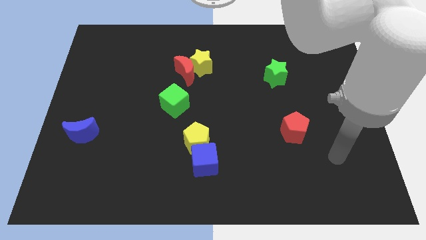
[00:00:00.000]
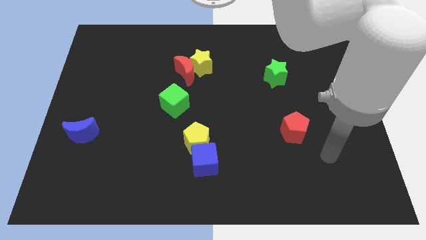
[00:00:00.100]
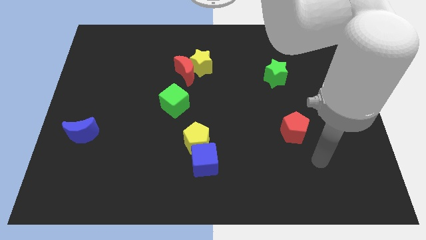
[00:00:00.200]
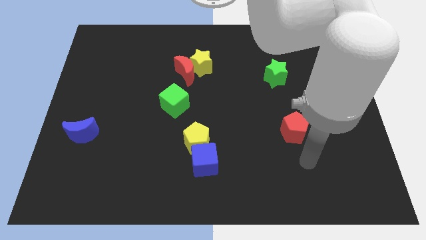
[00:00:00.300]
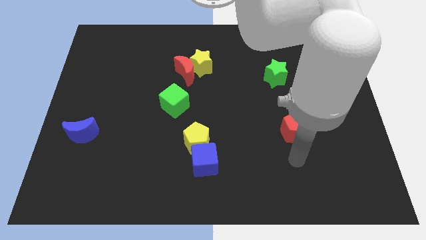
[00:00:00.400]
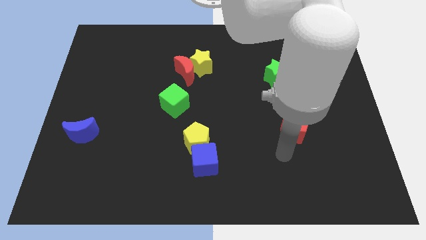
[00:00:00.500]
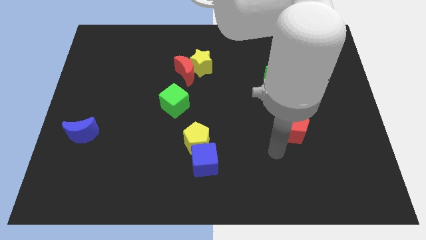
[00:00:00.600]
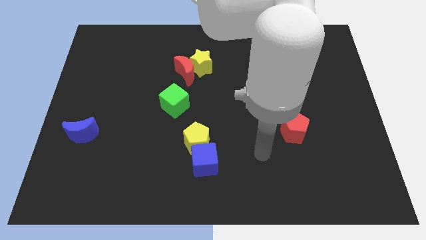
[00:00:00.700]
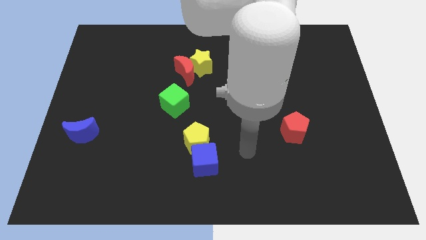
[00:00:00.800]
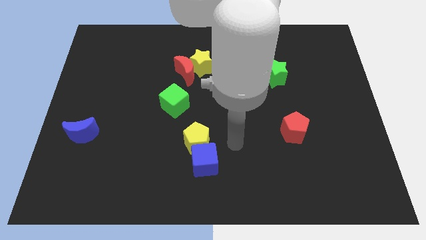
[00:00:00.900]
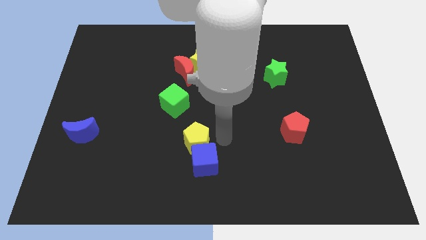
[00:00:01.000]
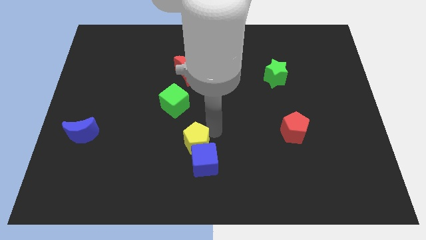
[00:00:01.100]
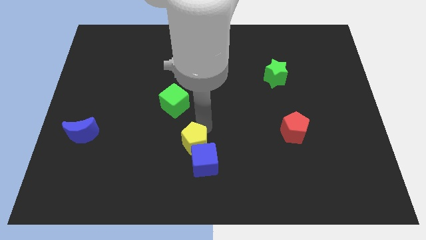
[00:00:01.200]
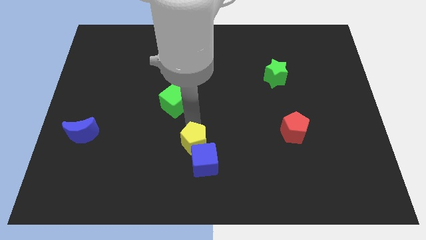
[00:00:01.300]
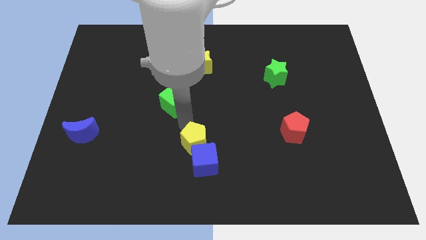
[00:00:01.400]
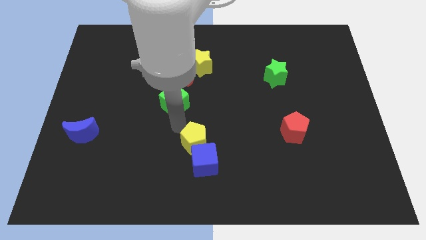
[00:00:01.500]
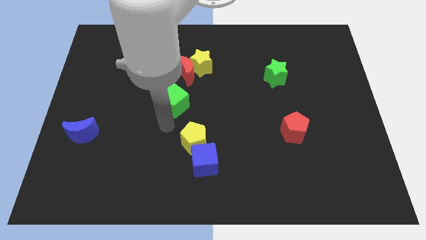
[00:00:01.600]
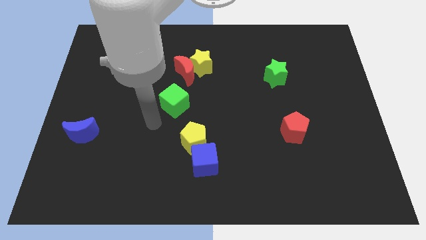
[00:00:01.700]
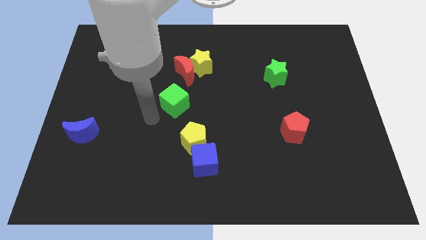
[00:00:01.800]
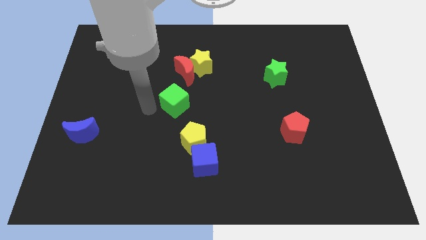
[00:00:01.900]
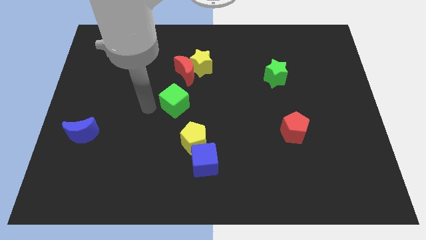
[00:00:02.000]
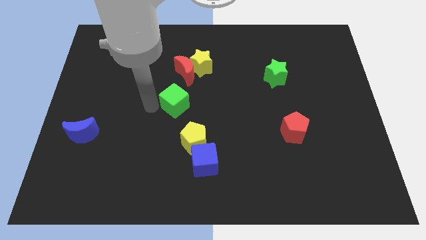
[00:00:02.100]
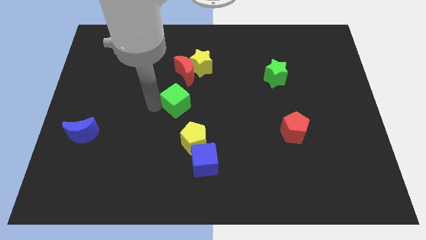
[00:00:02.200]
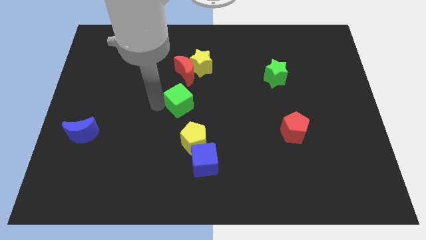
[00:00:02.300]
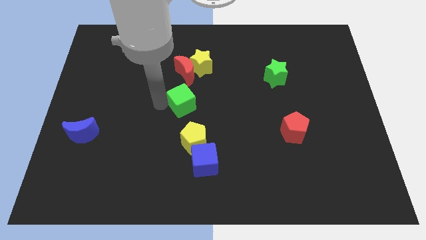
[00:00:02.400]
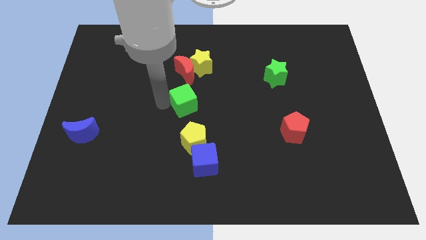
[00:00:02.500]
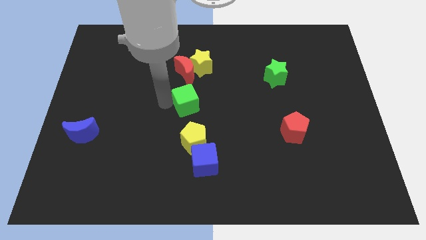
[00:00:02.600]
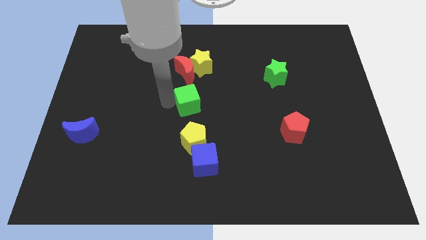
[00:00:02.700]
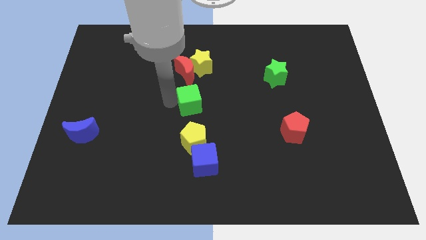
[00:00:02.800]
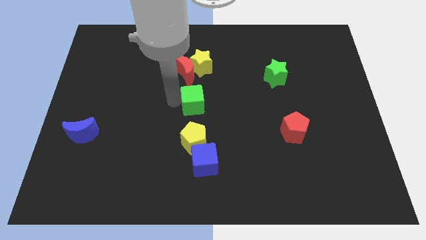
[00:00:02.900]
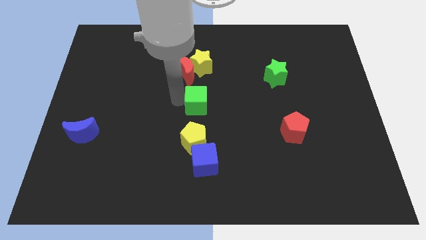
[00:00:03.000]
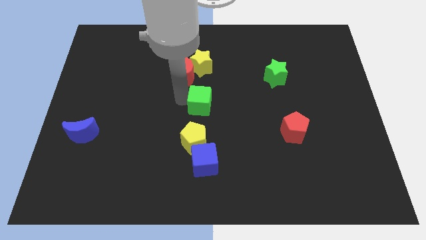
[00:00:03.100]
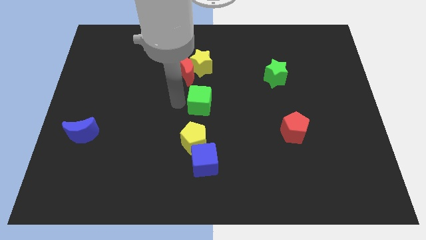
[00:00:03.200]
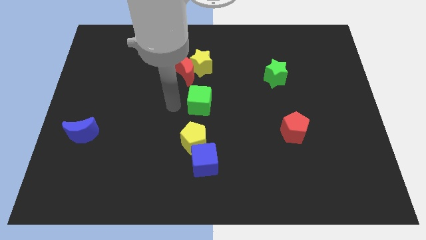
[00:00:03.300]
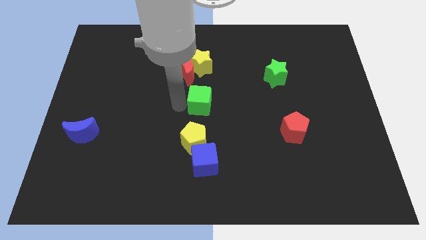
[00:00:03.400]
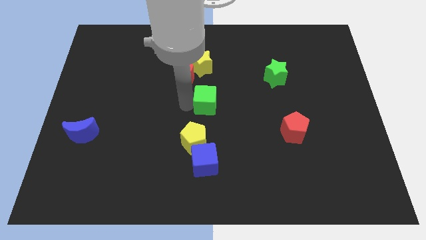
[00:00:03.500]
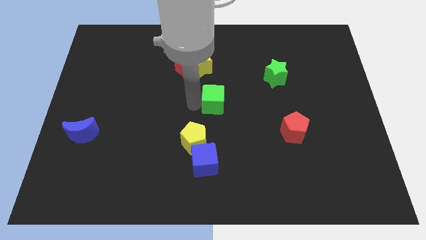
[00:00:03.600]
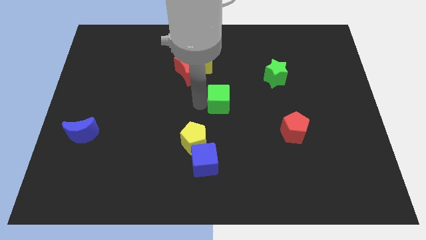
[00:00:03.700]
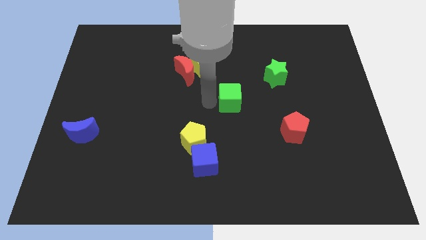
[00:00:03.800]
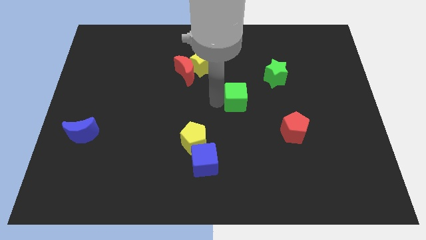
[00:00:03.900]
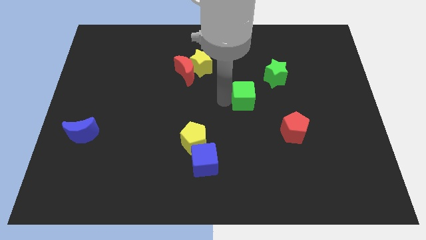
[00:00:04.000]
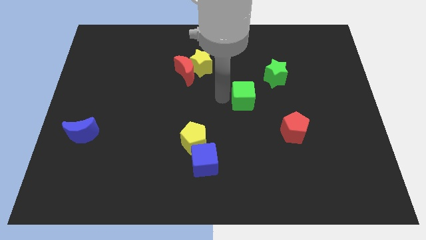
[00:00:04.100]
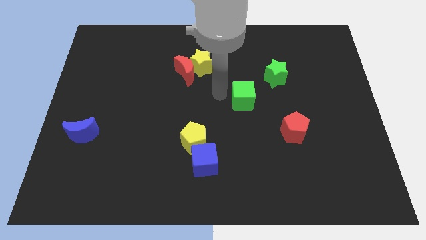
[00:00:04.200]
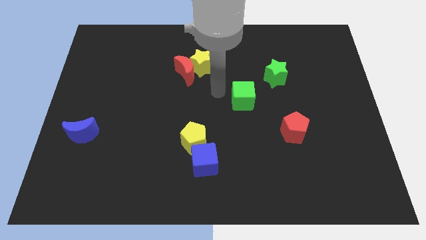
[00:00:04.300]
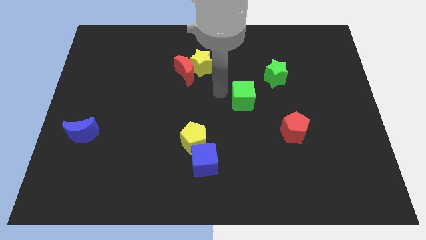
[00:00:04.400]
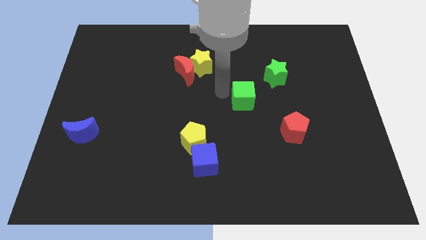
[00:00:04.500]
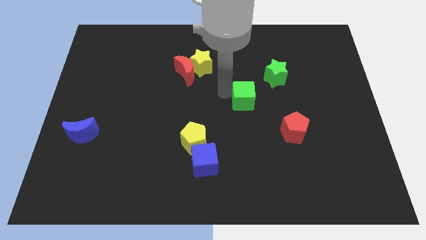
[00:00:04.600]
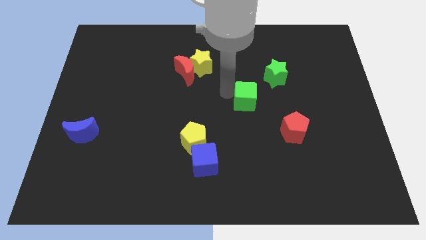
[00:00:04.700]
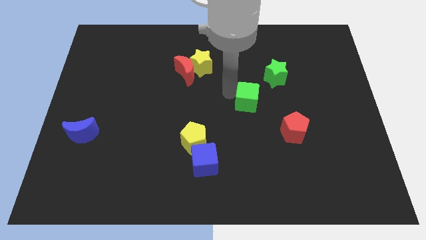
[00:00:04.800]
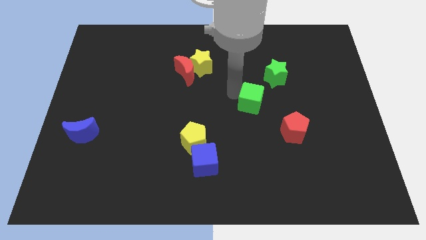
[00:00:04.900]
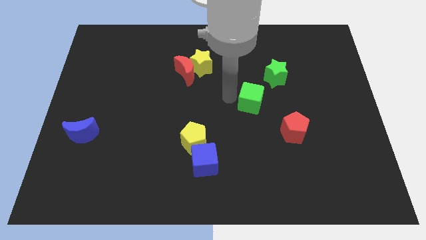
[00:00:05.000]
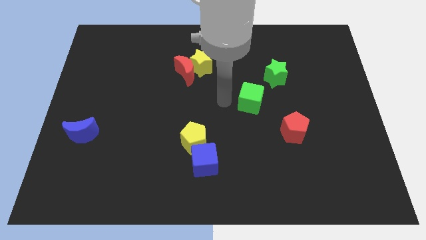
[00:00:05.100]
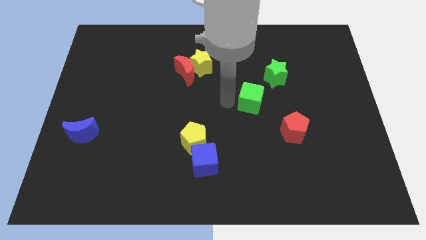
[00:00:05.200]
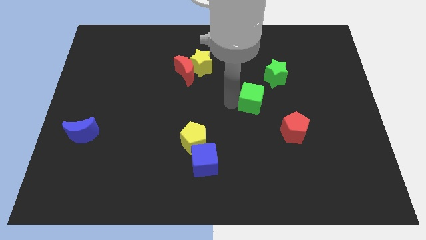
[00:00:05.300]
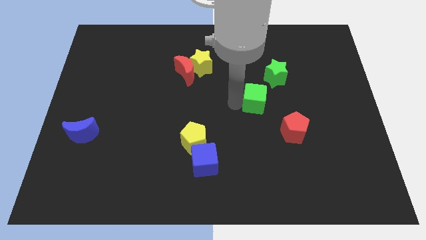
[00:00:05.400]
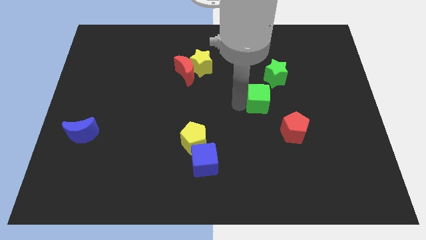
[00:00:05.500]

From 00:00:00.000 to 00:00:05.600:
move the green cube right

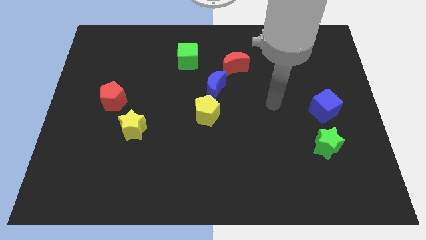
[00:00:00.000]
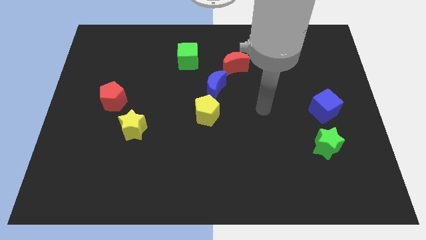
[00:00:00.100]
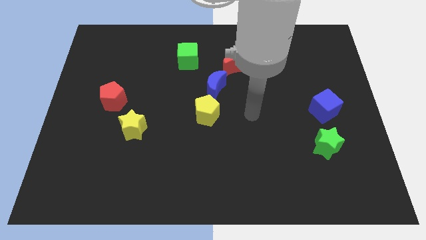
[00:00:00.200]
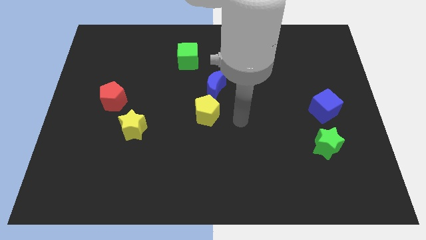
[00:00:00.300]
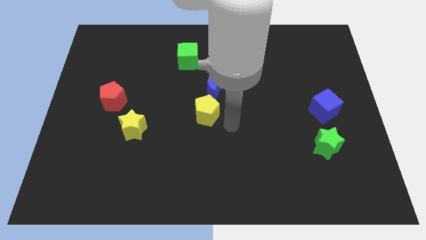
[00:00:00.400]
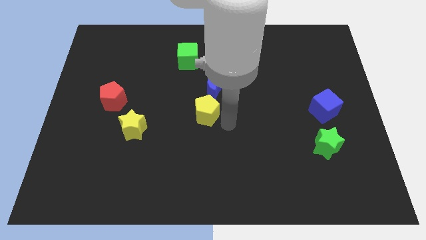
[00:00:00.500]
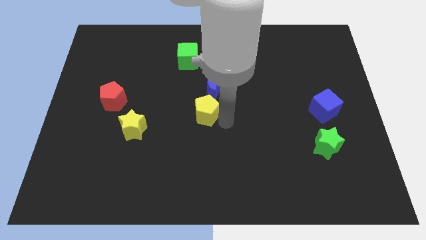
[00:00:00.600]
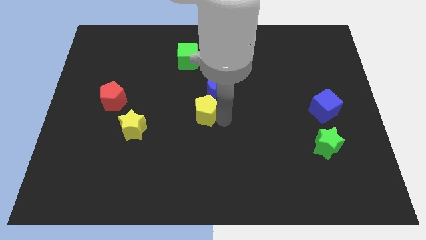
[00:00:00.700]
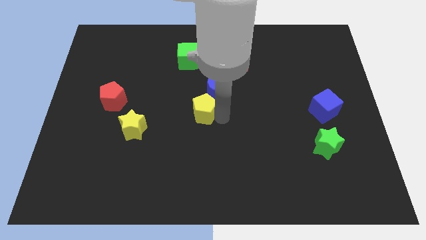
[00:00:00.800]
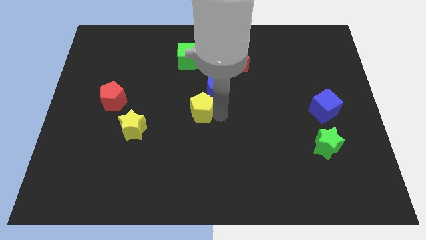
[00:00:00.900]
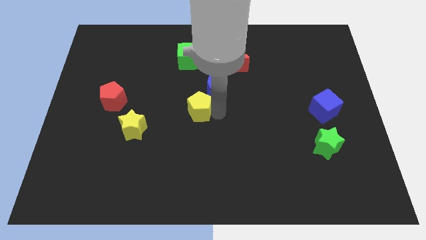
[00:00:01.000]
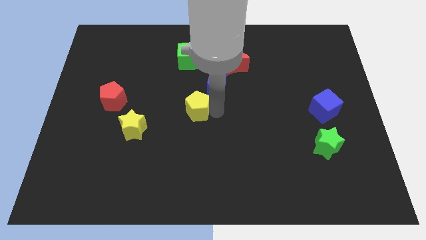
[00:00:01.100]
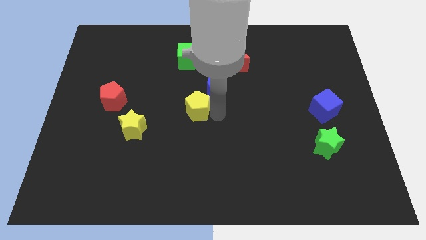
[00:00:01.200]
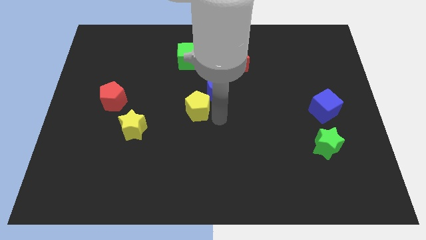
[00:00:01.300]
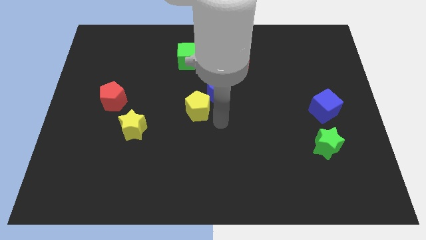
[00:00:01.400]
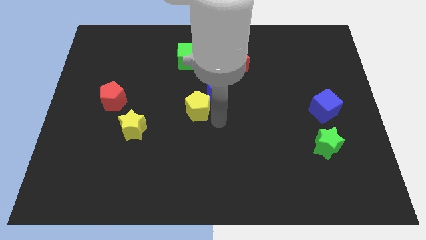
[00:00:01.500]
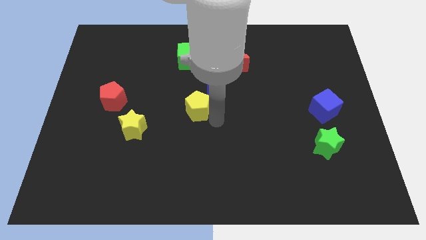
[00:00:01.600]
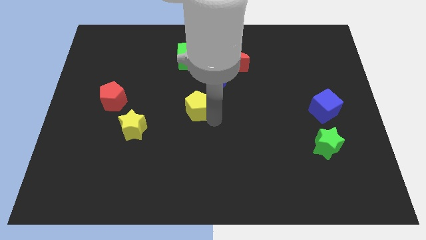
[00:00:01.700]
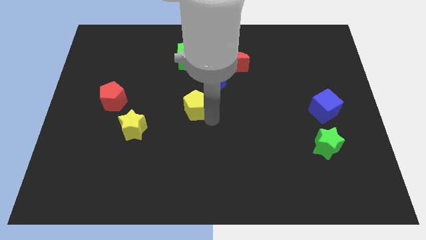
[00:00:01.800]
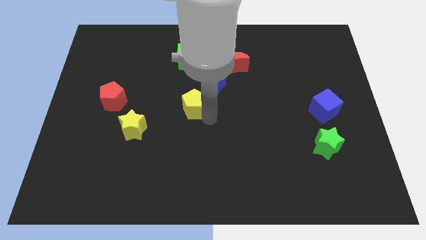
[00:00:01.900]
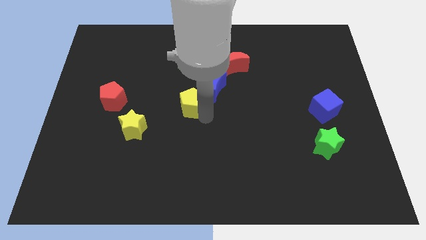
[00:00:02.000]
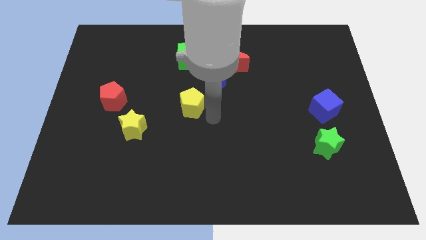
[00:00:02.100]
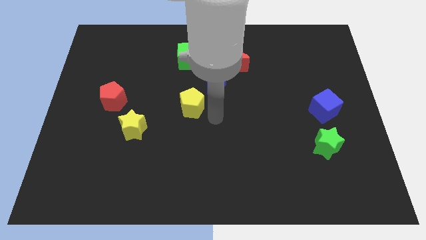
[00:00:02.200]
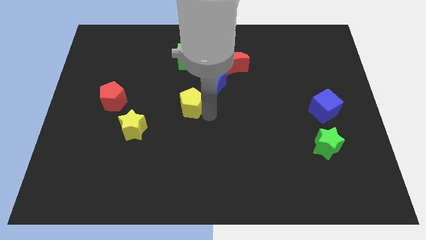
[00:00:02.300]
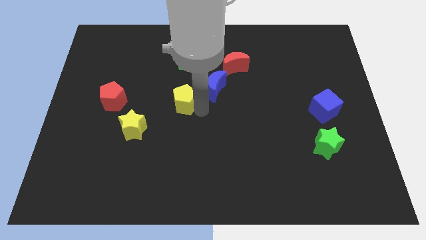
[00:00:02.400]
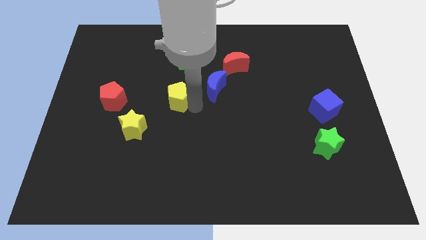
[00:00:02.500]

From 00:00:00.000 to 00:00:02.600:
slightly move the yellow pentagon diagonally up and left
